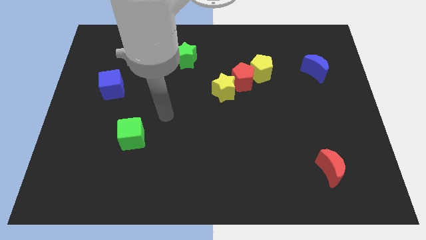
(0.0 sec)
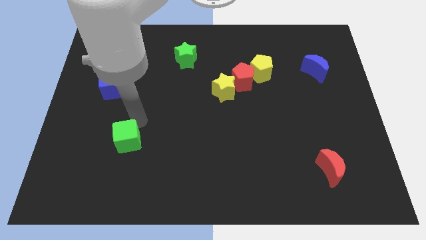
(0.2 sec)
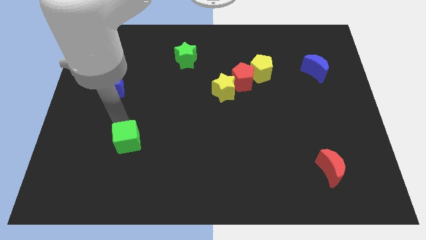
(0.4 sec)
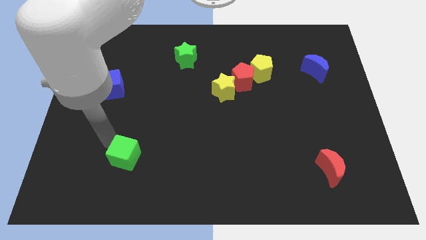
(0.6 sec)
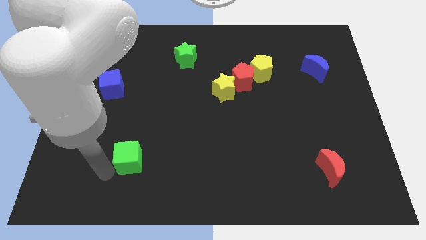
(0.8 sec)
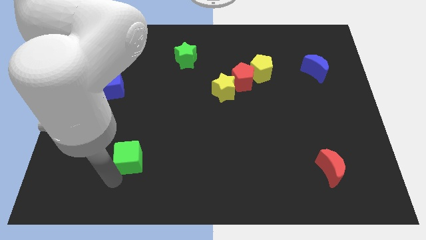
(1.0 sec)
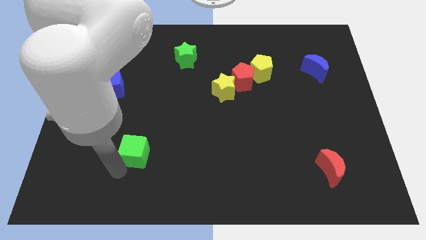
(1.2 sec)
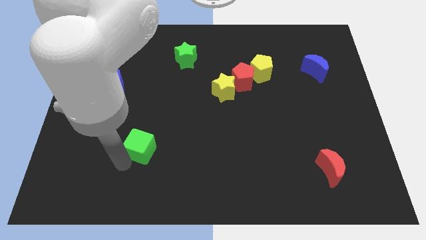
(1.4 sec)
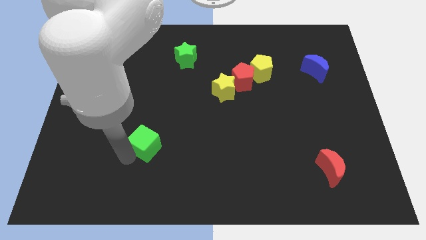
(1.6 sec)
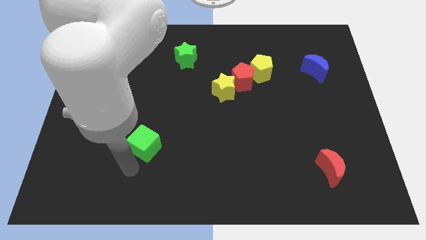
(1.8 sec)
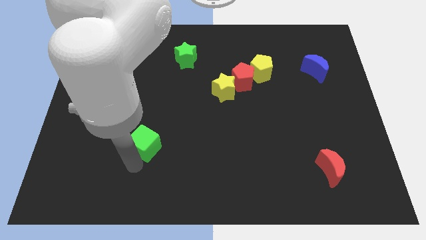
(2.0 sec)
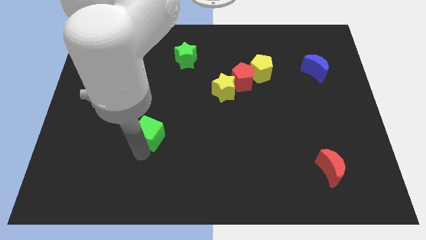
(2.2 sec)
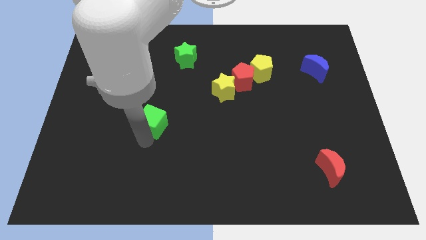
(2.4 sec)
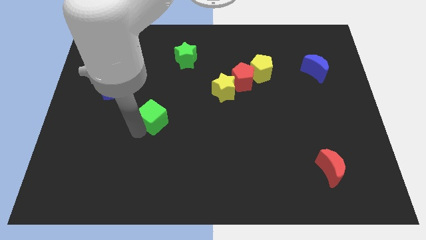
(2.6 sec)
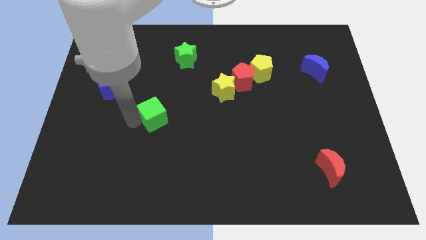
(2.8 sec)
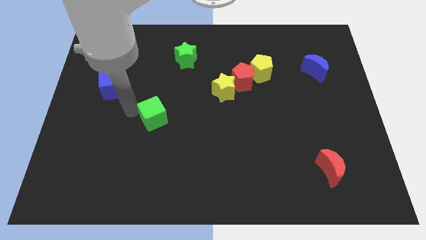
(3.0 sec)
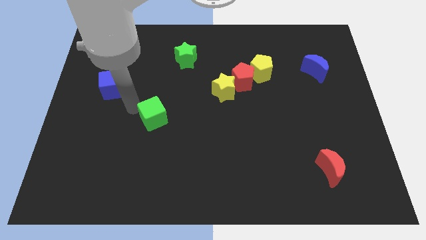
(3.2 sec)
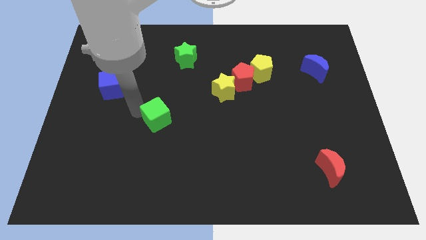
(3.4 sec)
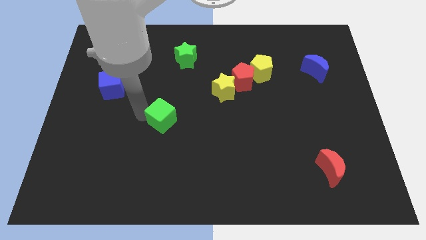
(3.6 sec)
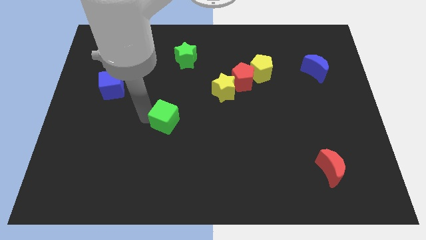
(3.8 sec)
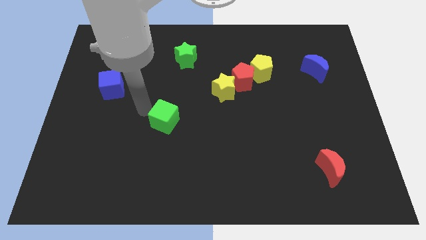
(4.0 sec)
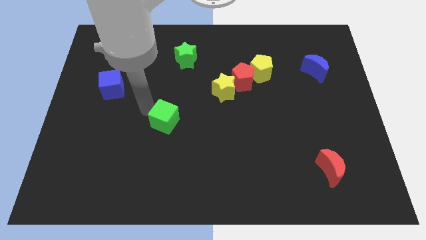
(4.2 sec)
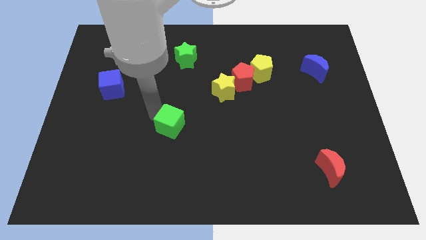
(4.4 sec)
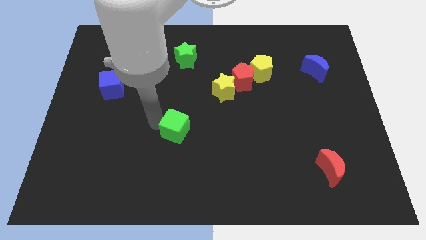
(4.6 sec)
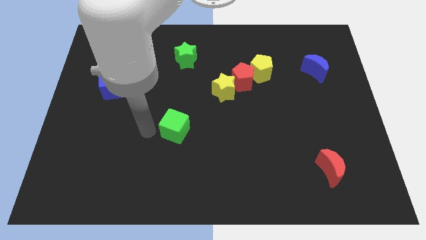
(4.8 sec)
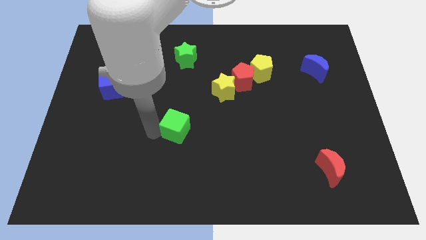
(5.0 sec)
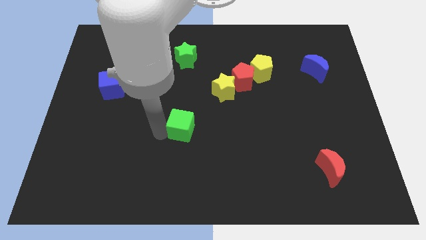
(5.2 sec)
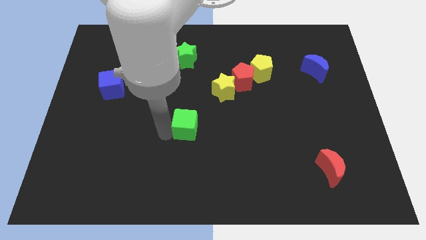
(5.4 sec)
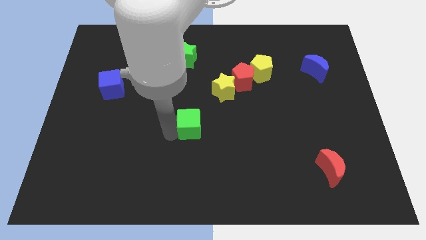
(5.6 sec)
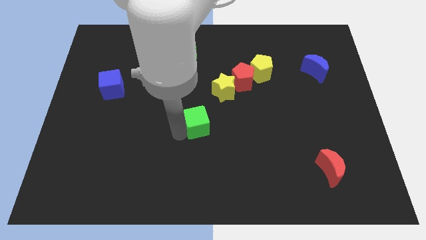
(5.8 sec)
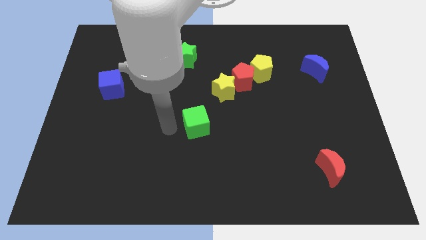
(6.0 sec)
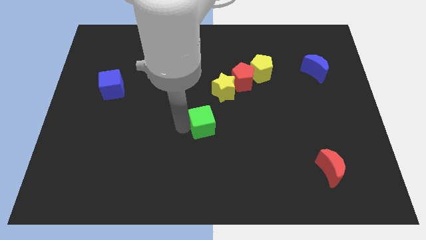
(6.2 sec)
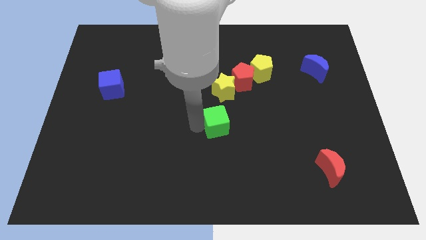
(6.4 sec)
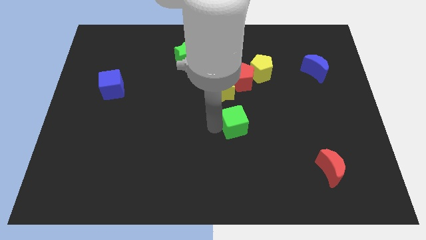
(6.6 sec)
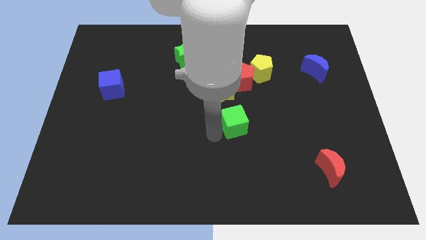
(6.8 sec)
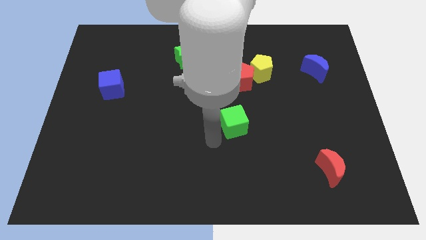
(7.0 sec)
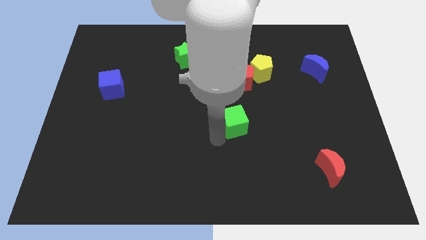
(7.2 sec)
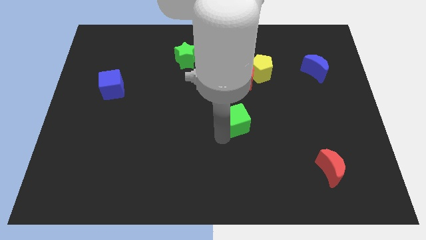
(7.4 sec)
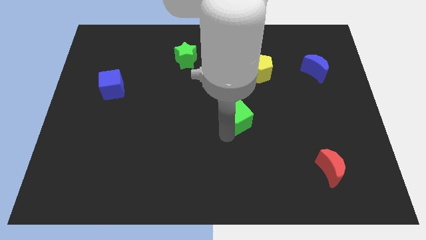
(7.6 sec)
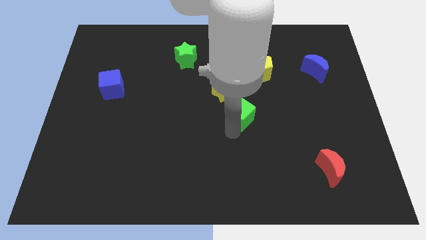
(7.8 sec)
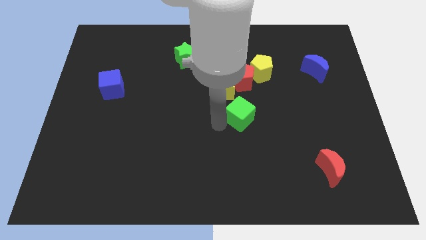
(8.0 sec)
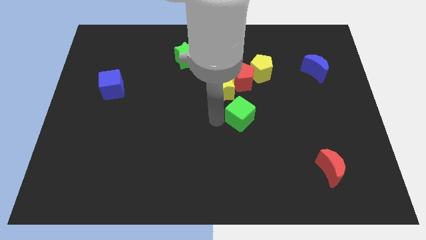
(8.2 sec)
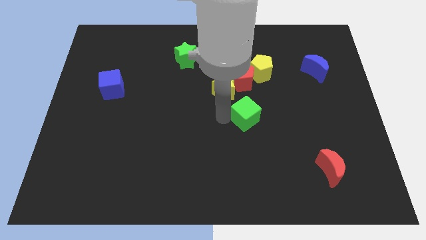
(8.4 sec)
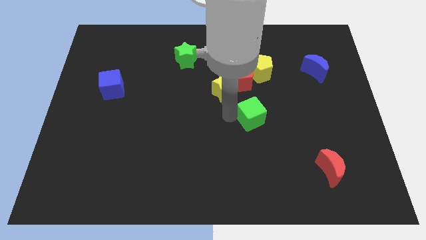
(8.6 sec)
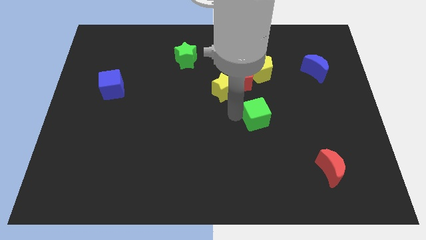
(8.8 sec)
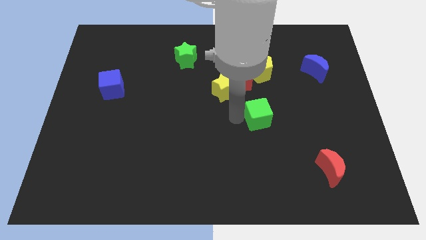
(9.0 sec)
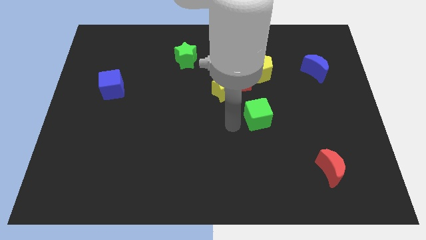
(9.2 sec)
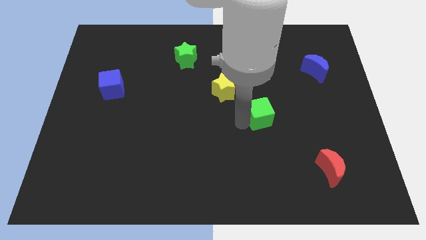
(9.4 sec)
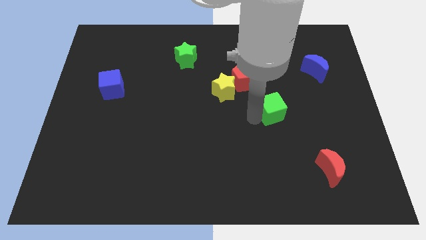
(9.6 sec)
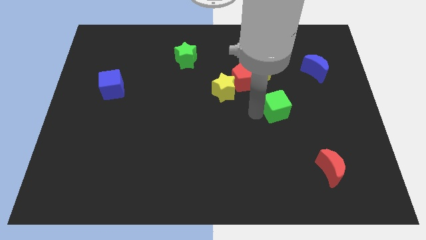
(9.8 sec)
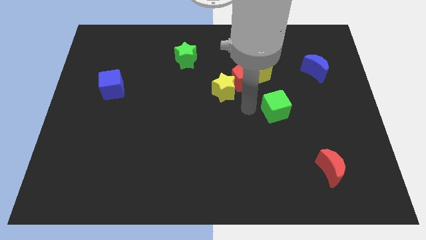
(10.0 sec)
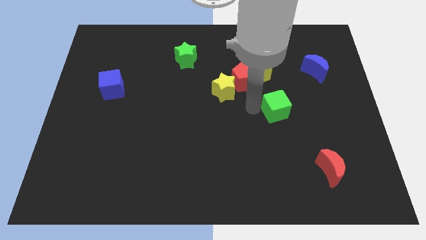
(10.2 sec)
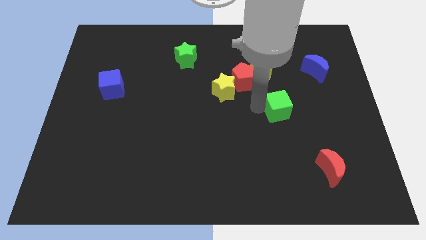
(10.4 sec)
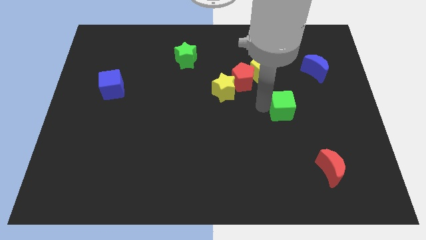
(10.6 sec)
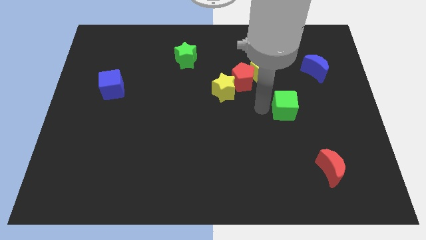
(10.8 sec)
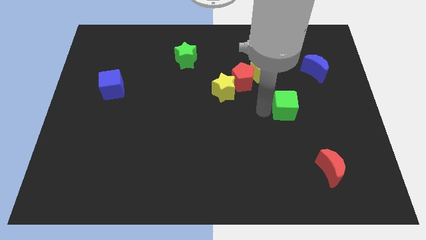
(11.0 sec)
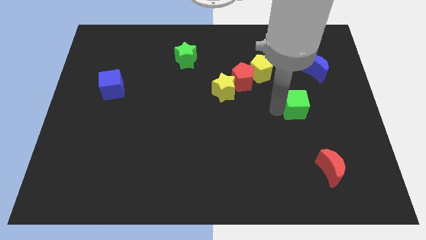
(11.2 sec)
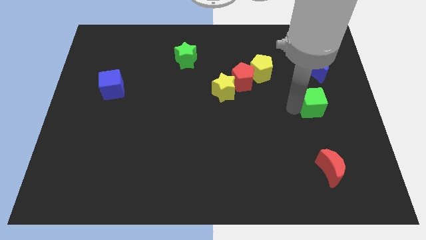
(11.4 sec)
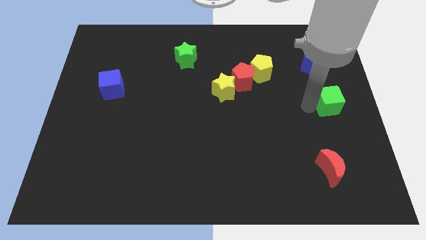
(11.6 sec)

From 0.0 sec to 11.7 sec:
put the green cube to the center right
